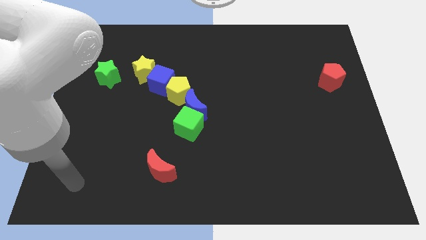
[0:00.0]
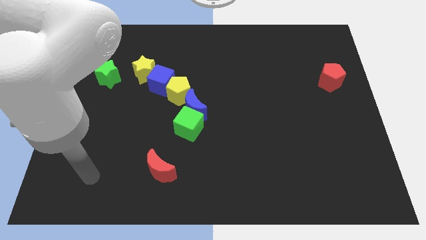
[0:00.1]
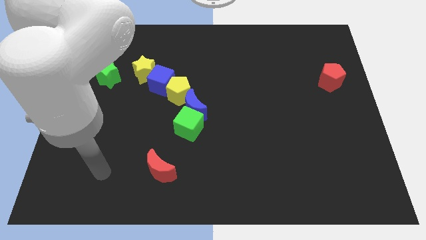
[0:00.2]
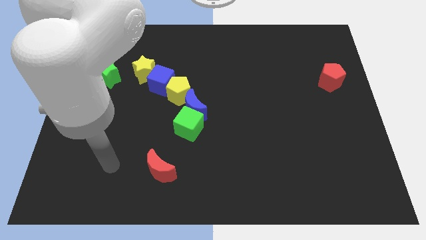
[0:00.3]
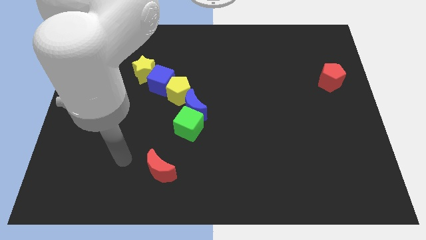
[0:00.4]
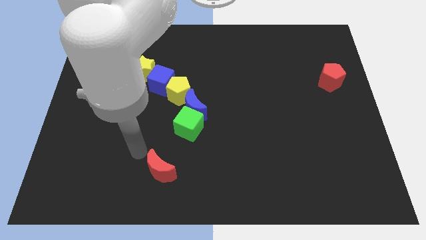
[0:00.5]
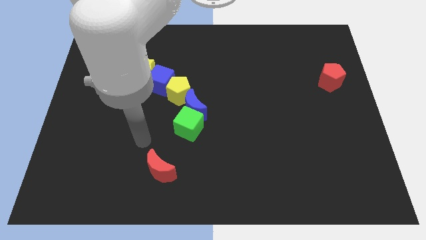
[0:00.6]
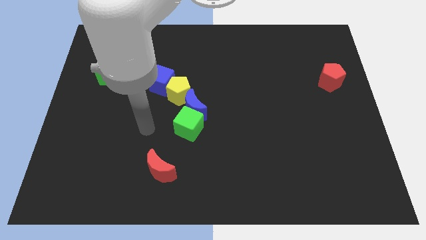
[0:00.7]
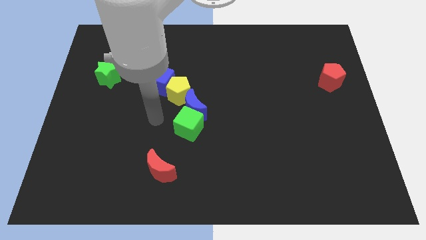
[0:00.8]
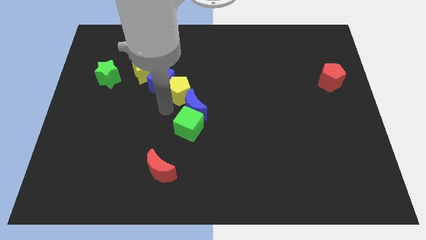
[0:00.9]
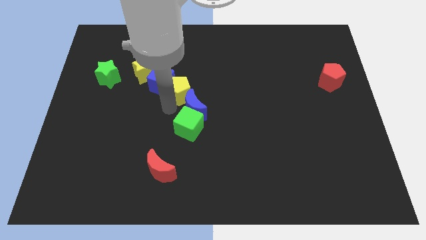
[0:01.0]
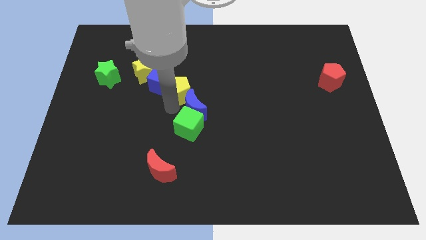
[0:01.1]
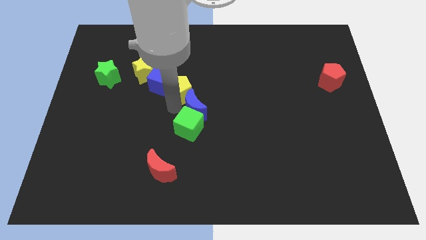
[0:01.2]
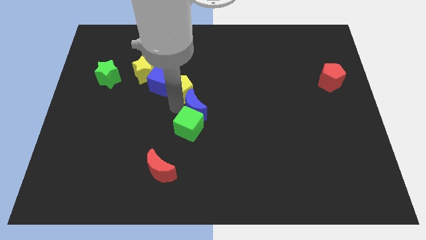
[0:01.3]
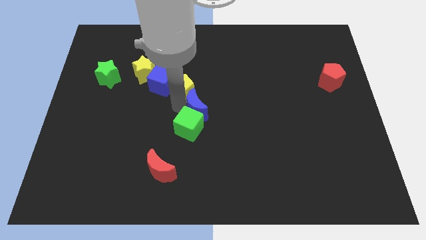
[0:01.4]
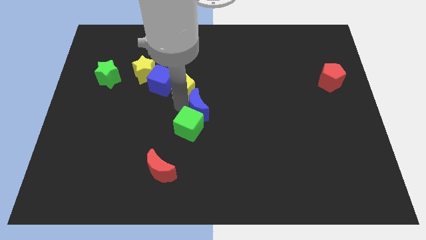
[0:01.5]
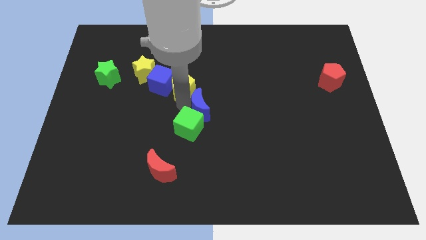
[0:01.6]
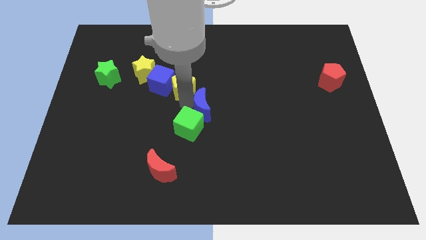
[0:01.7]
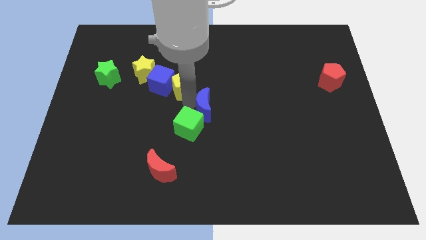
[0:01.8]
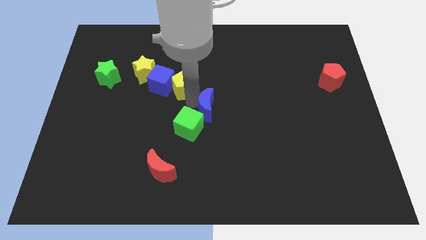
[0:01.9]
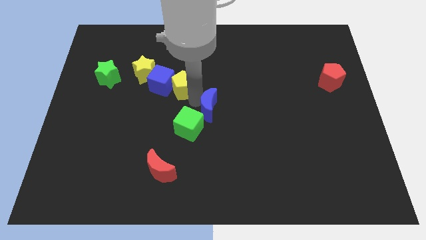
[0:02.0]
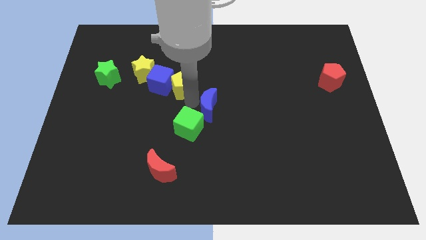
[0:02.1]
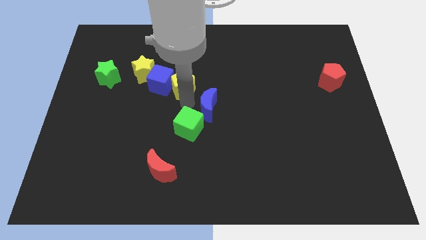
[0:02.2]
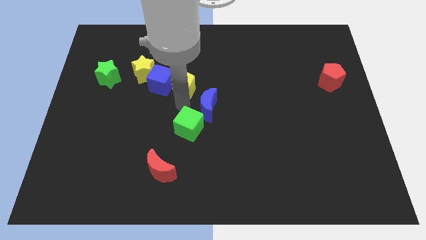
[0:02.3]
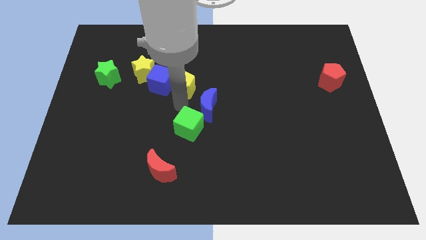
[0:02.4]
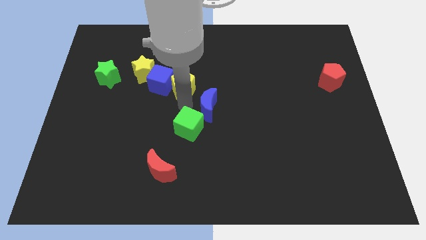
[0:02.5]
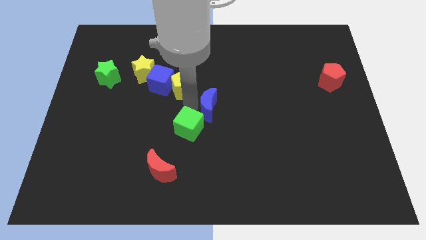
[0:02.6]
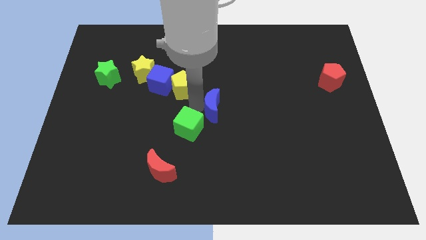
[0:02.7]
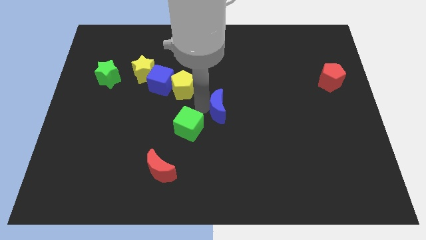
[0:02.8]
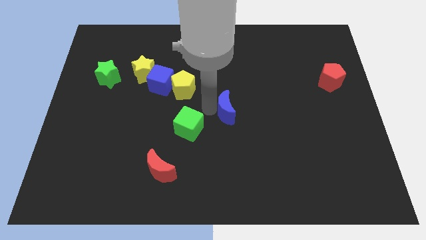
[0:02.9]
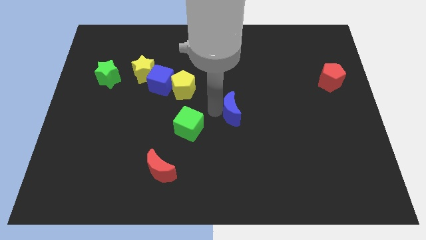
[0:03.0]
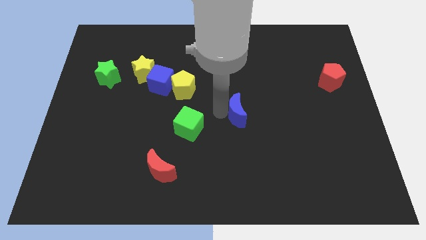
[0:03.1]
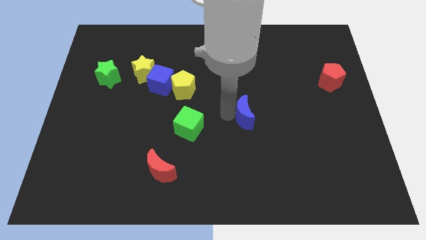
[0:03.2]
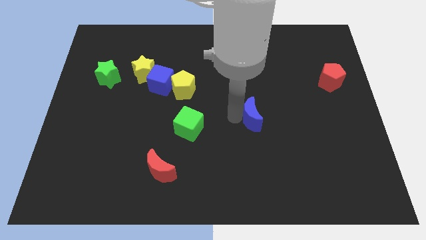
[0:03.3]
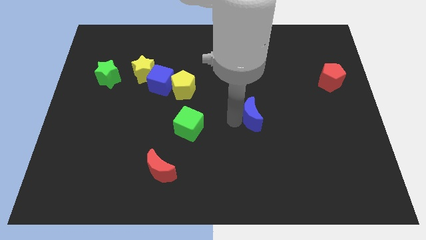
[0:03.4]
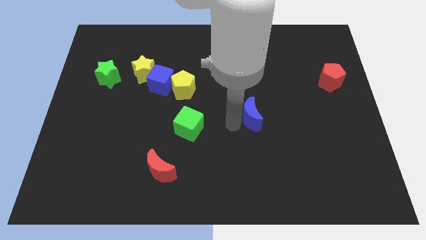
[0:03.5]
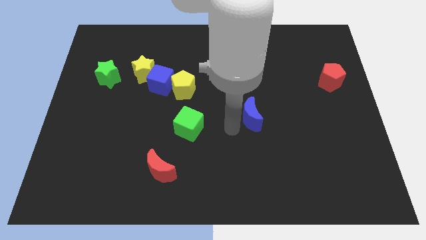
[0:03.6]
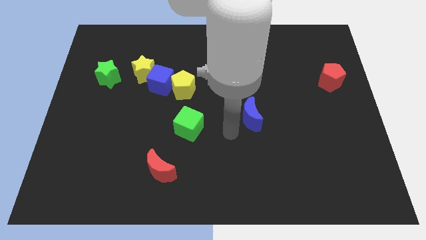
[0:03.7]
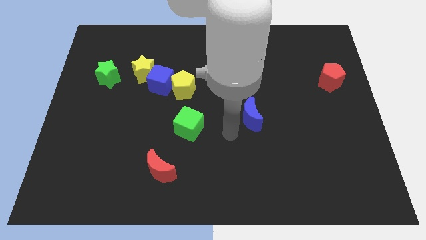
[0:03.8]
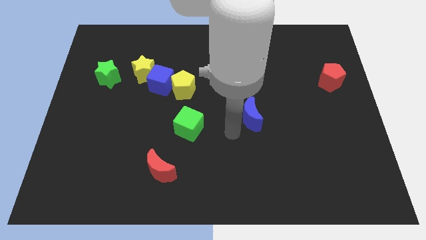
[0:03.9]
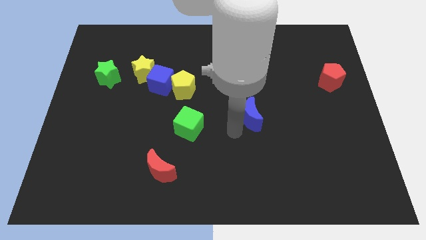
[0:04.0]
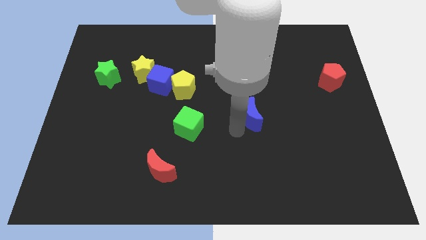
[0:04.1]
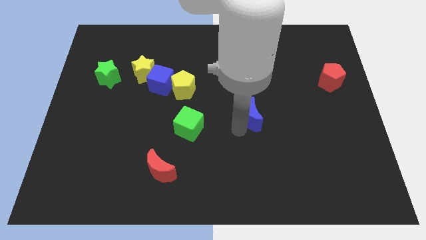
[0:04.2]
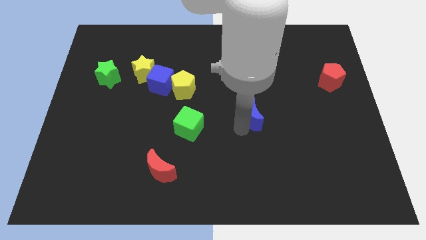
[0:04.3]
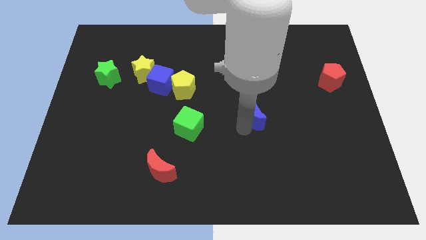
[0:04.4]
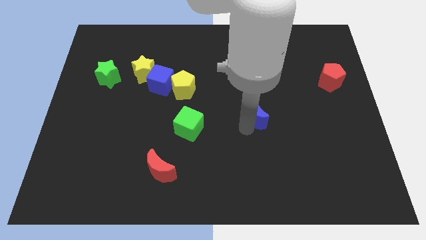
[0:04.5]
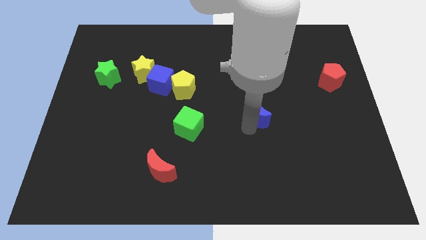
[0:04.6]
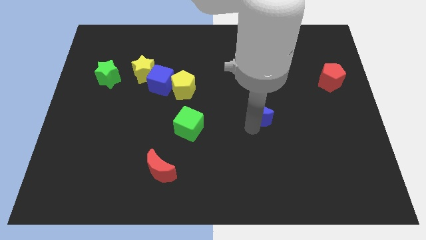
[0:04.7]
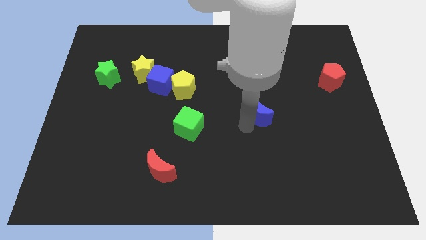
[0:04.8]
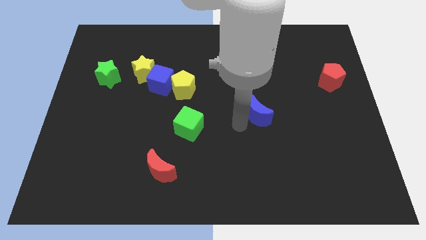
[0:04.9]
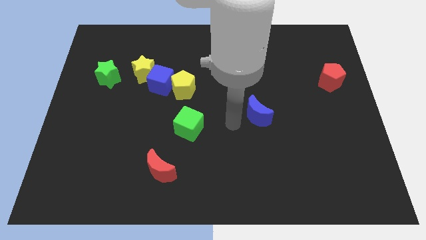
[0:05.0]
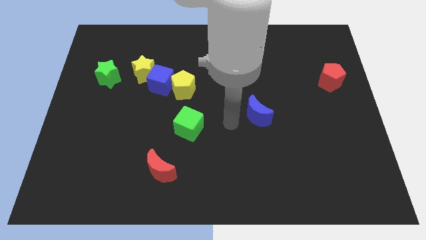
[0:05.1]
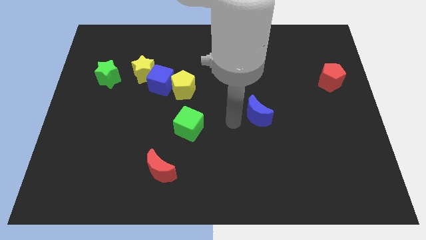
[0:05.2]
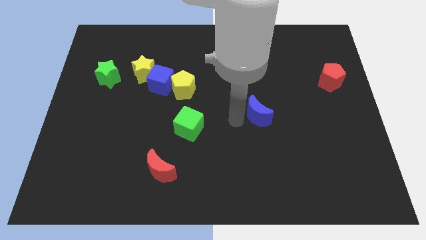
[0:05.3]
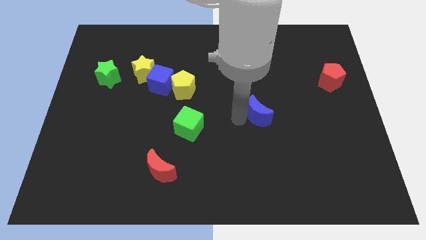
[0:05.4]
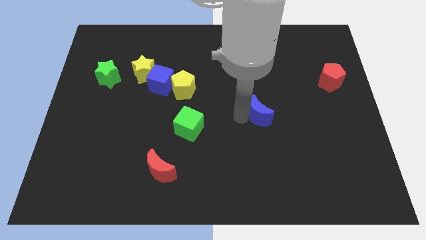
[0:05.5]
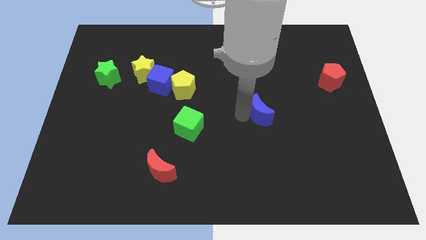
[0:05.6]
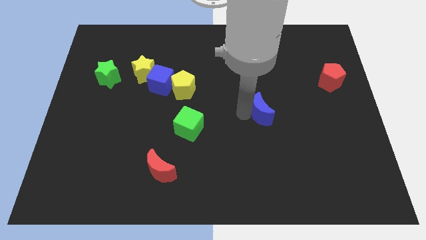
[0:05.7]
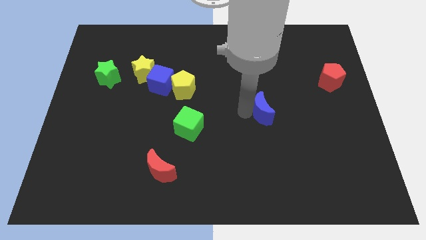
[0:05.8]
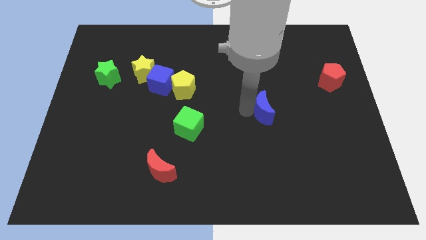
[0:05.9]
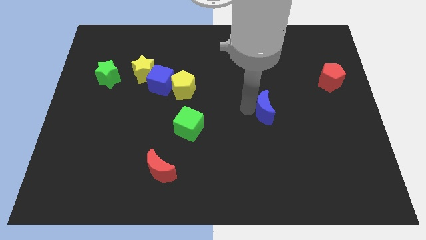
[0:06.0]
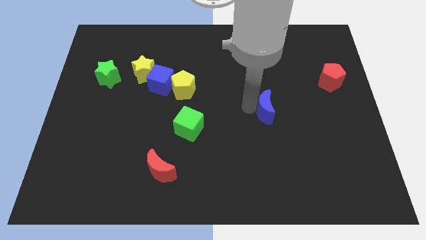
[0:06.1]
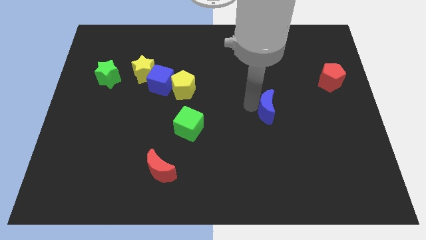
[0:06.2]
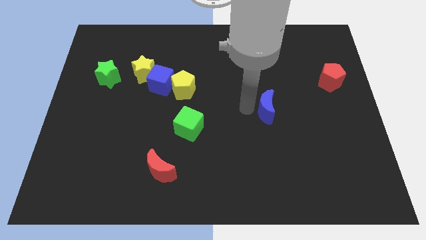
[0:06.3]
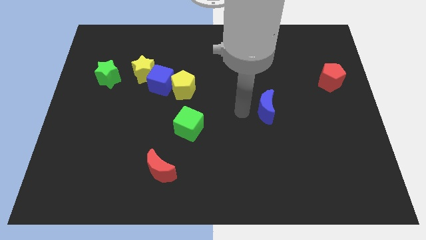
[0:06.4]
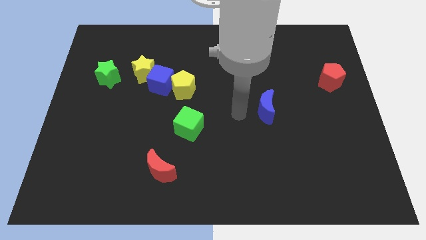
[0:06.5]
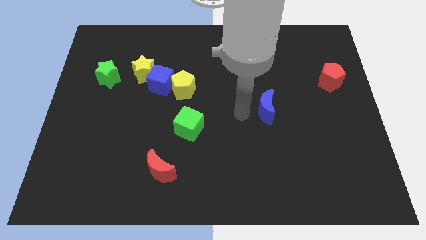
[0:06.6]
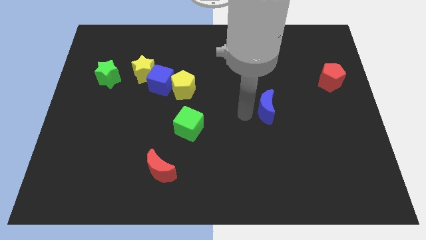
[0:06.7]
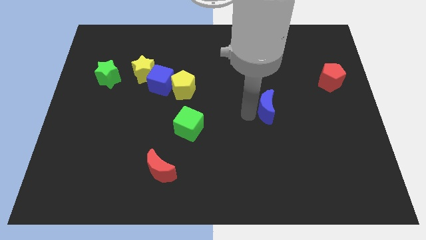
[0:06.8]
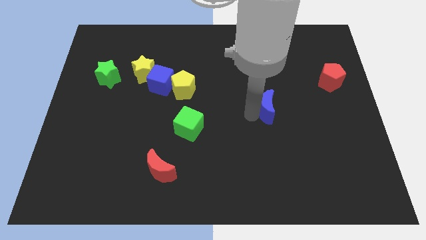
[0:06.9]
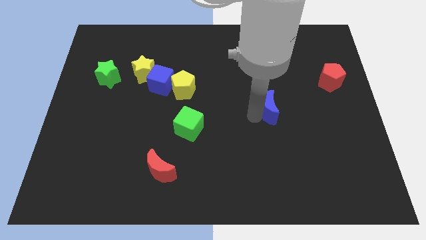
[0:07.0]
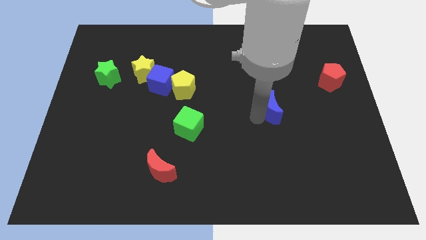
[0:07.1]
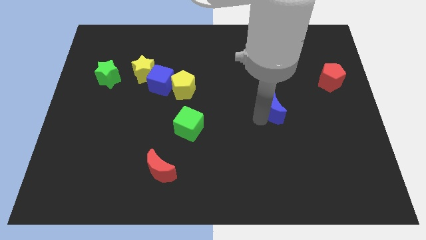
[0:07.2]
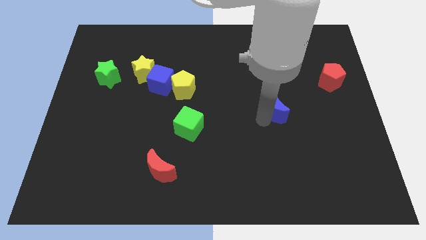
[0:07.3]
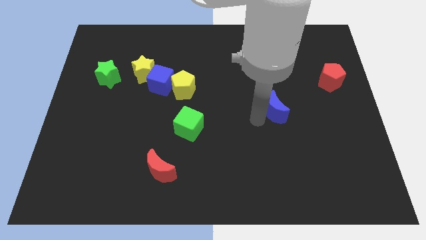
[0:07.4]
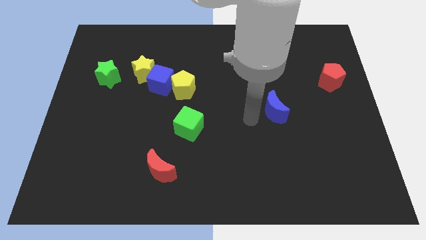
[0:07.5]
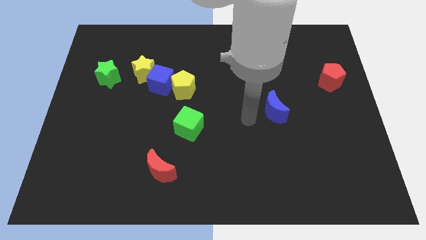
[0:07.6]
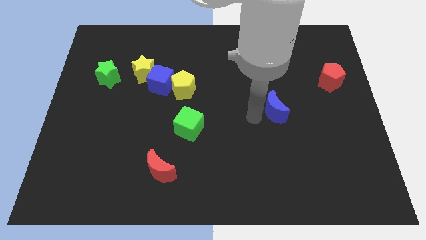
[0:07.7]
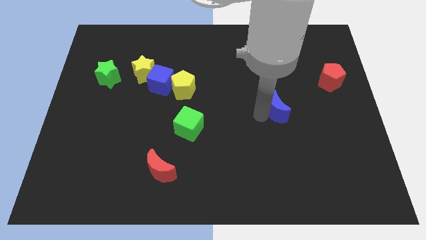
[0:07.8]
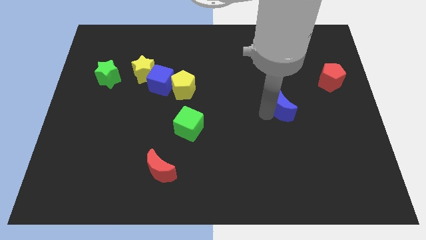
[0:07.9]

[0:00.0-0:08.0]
move the blue moon to the right
